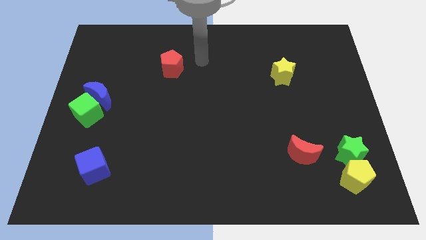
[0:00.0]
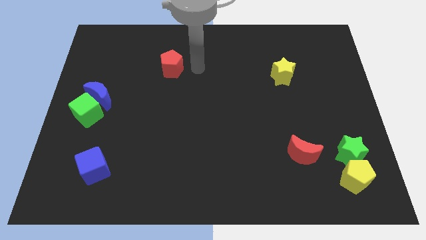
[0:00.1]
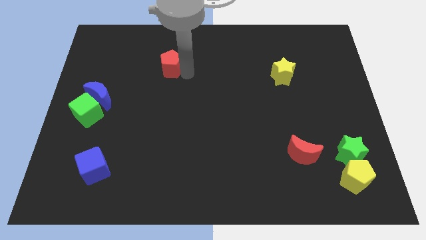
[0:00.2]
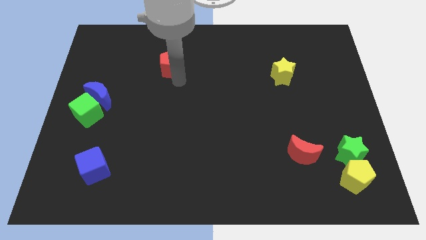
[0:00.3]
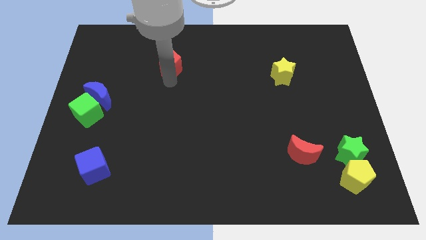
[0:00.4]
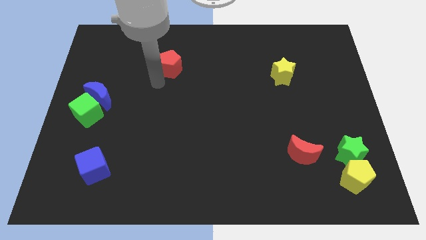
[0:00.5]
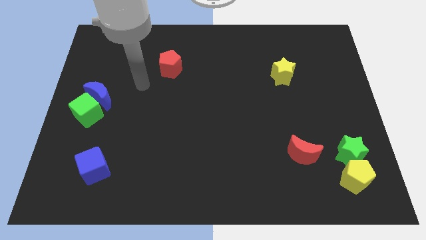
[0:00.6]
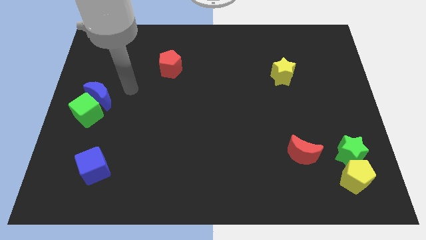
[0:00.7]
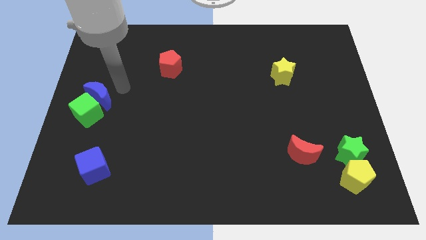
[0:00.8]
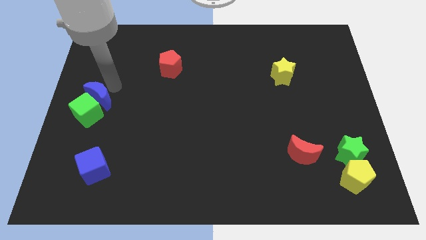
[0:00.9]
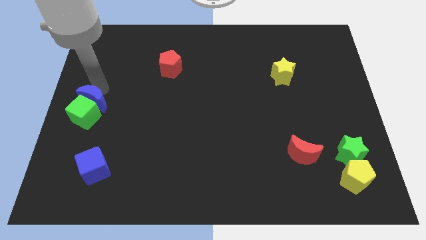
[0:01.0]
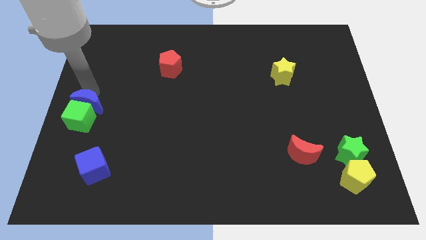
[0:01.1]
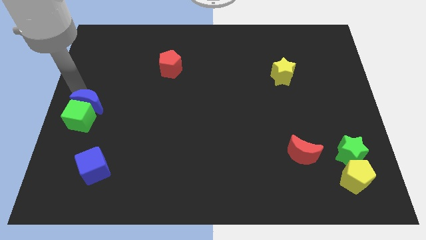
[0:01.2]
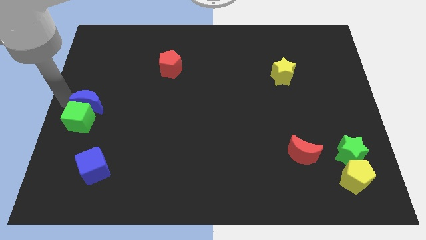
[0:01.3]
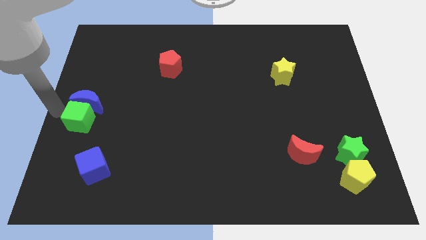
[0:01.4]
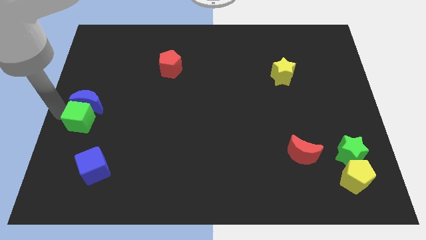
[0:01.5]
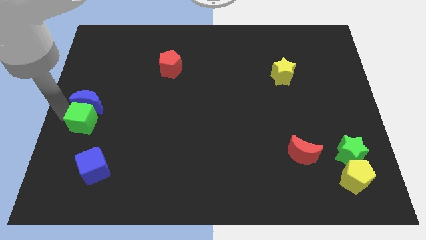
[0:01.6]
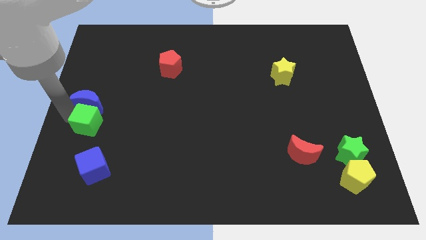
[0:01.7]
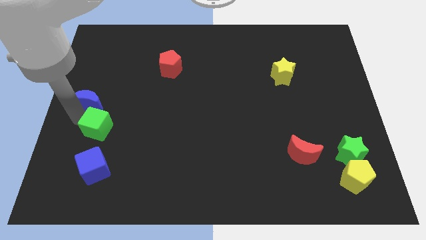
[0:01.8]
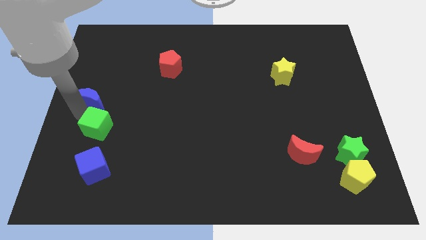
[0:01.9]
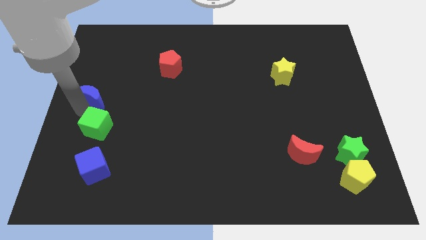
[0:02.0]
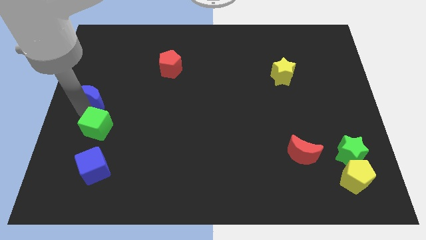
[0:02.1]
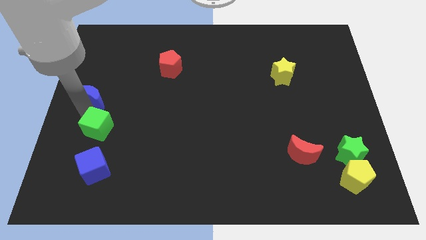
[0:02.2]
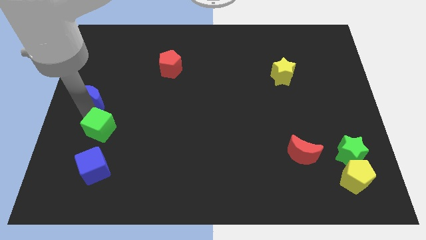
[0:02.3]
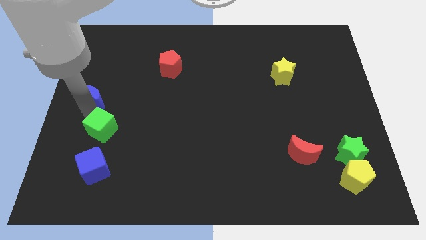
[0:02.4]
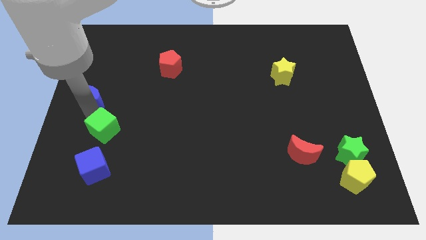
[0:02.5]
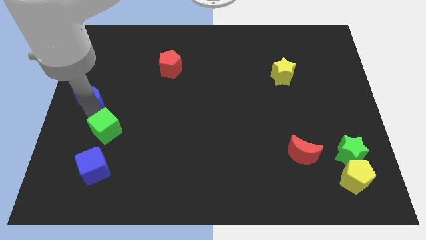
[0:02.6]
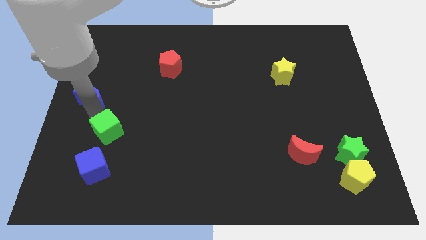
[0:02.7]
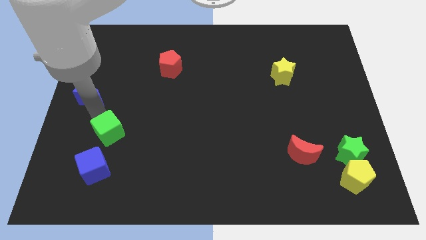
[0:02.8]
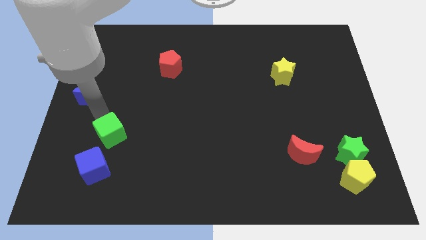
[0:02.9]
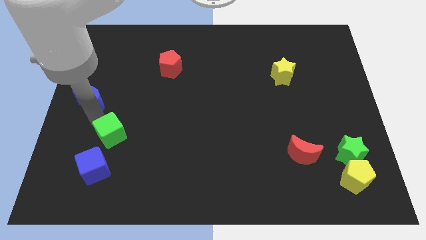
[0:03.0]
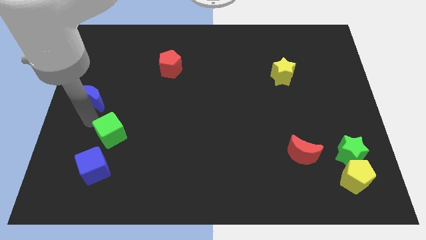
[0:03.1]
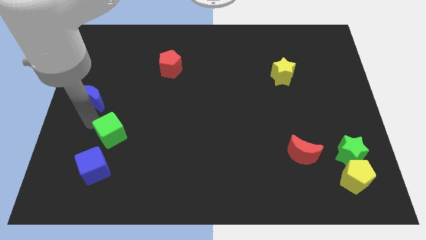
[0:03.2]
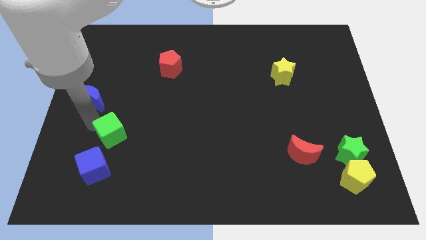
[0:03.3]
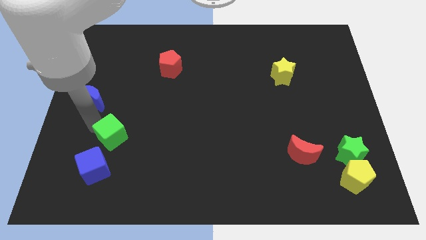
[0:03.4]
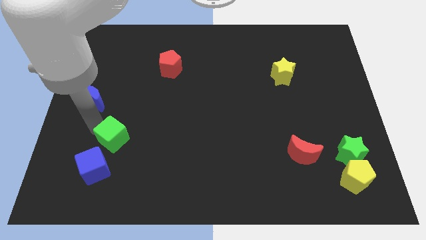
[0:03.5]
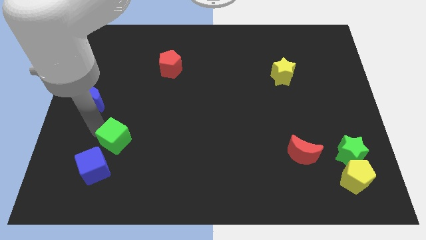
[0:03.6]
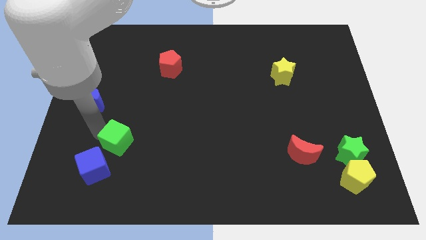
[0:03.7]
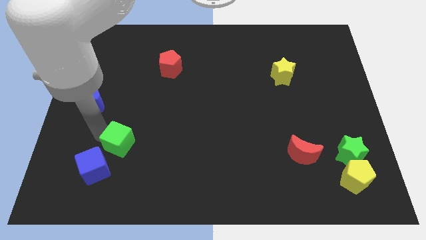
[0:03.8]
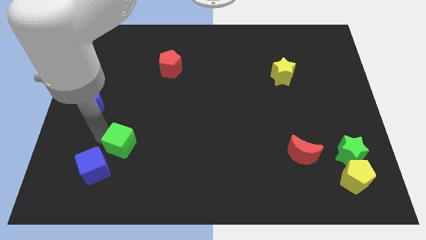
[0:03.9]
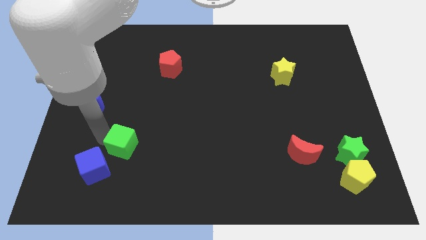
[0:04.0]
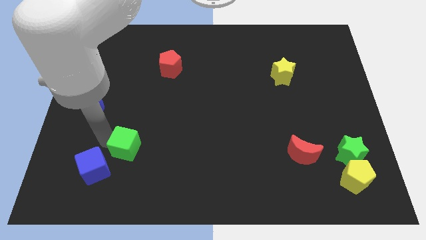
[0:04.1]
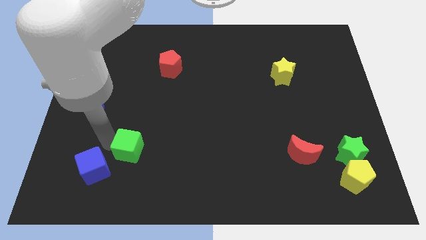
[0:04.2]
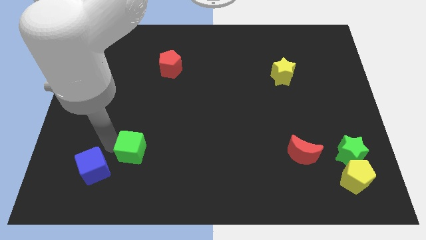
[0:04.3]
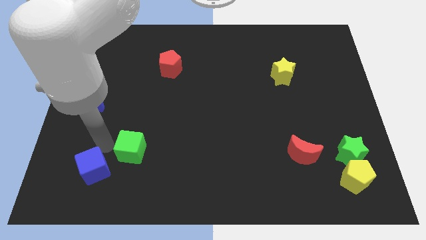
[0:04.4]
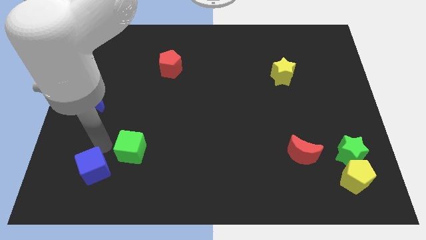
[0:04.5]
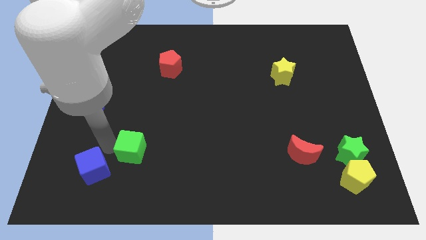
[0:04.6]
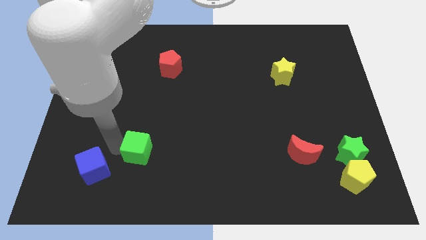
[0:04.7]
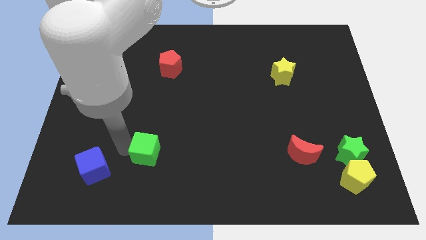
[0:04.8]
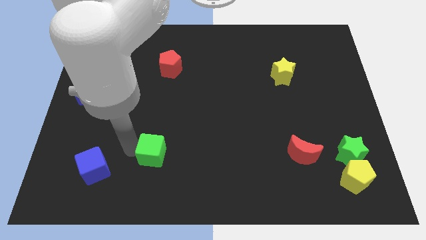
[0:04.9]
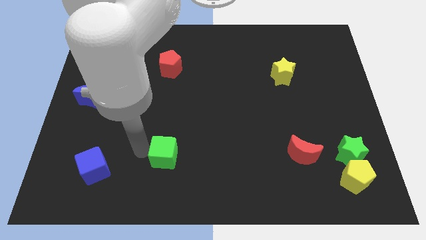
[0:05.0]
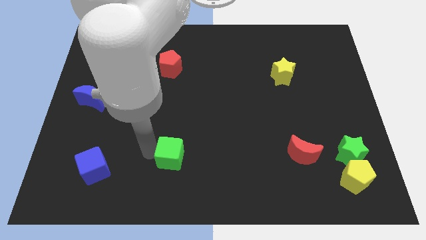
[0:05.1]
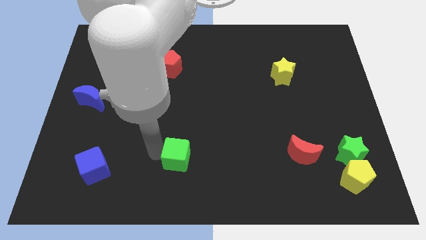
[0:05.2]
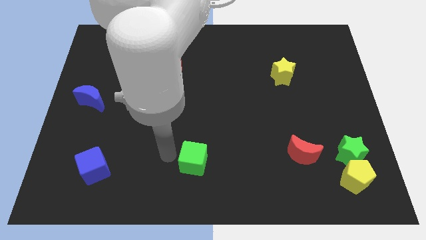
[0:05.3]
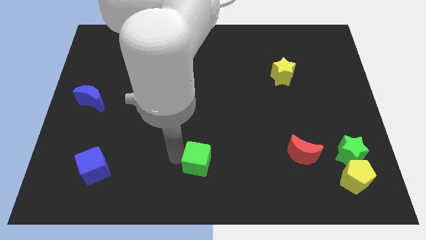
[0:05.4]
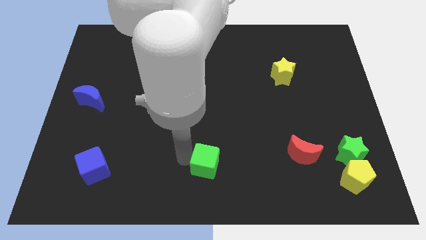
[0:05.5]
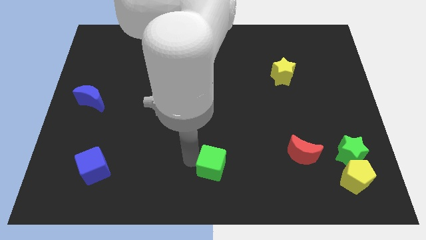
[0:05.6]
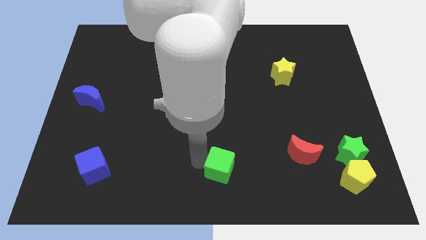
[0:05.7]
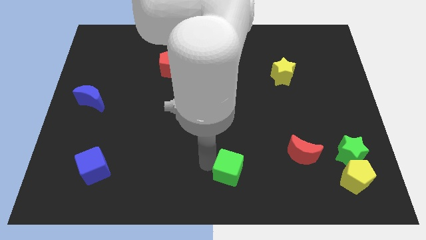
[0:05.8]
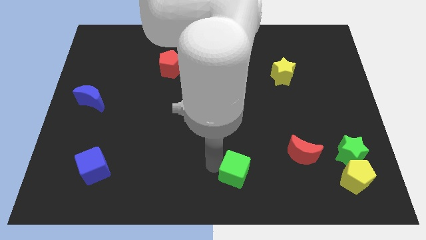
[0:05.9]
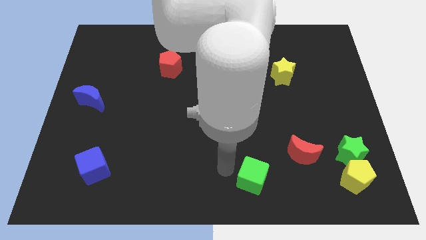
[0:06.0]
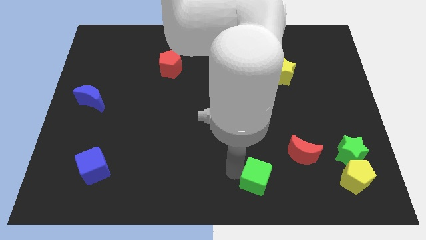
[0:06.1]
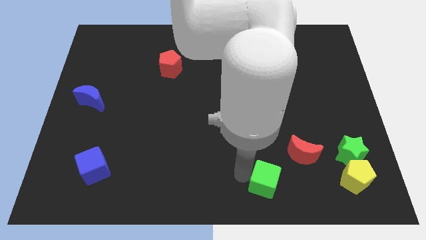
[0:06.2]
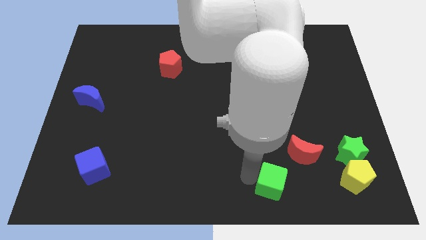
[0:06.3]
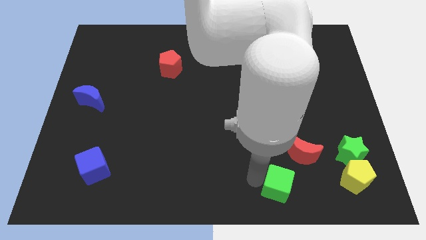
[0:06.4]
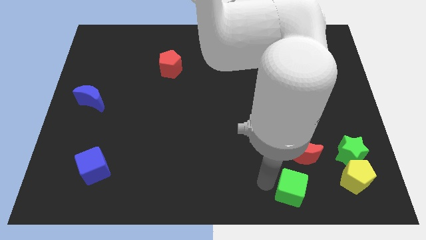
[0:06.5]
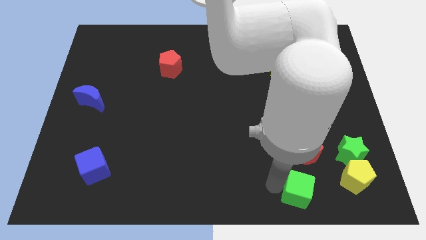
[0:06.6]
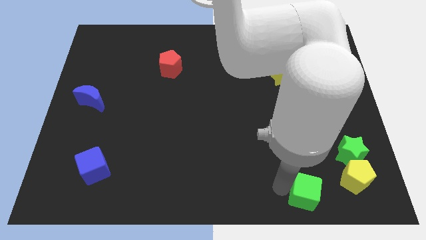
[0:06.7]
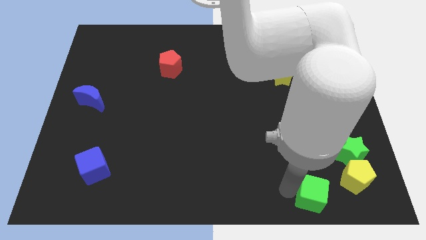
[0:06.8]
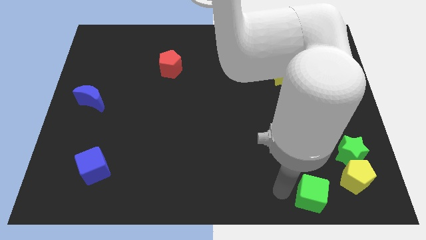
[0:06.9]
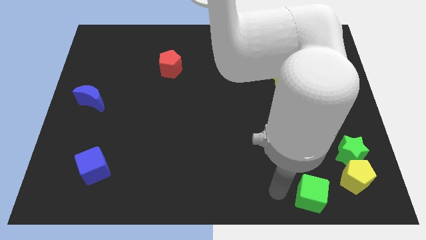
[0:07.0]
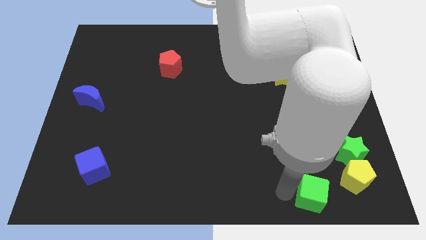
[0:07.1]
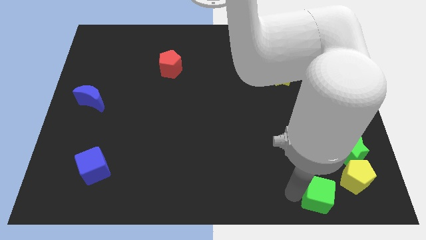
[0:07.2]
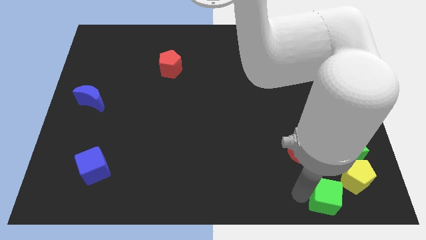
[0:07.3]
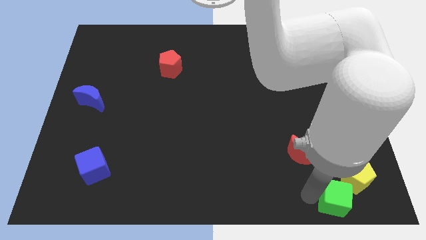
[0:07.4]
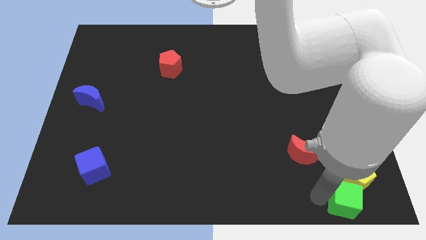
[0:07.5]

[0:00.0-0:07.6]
put the green cube to the bottom right
